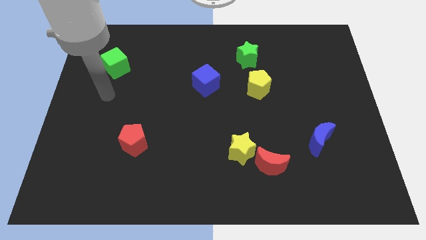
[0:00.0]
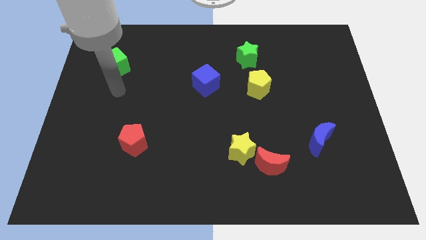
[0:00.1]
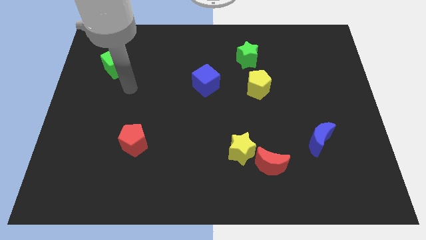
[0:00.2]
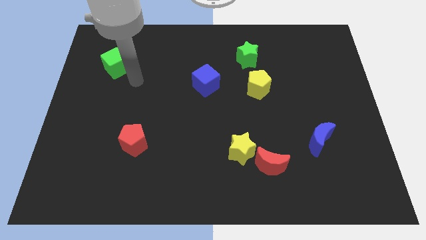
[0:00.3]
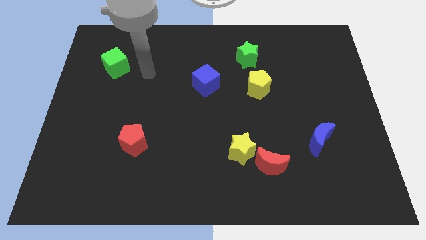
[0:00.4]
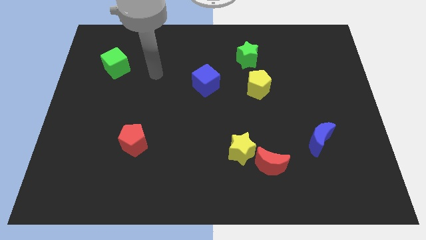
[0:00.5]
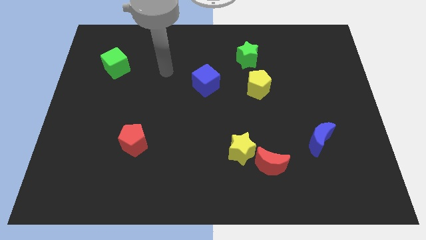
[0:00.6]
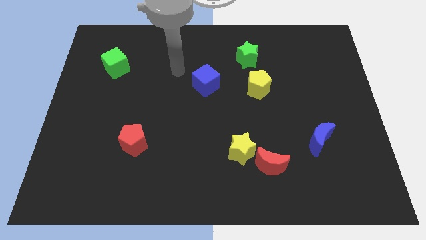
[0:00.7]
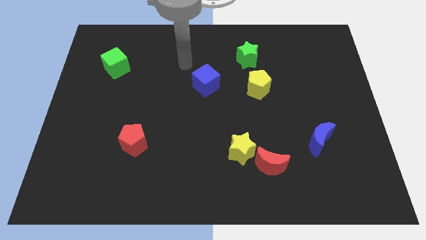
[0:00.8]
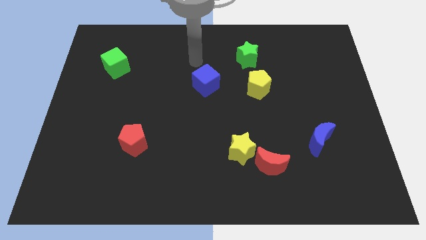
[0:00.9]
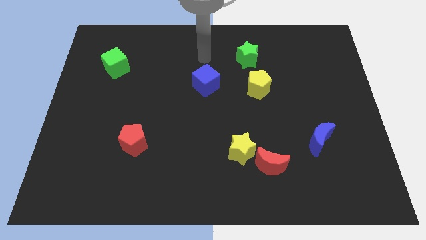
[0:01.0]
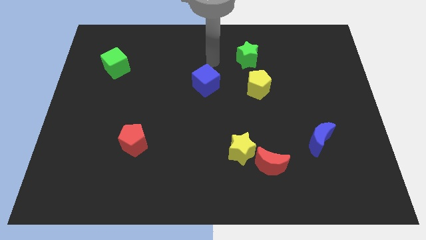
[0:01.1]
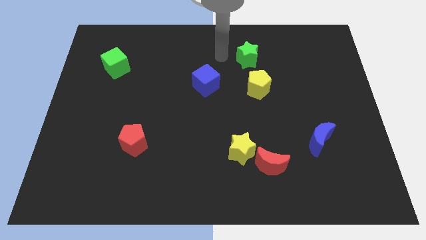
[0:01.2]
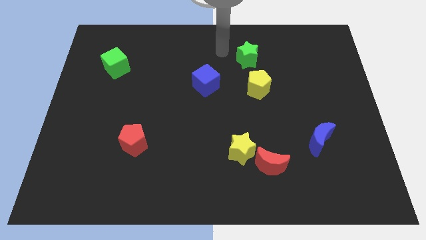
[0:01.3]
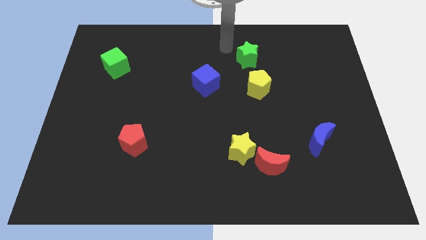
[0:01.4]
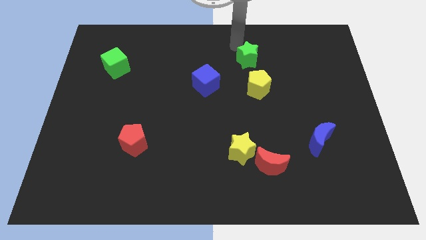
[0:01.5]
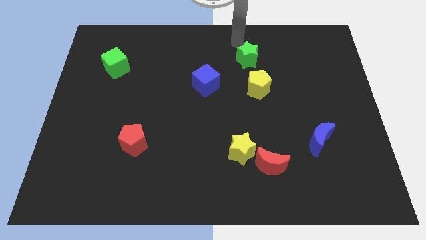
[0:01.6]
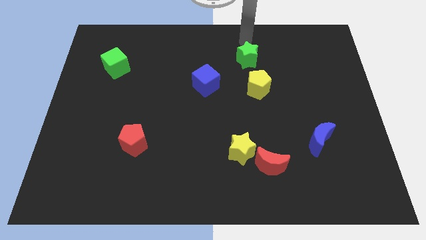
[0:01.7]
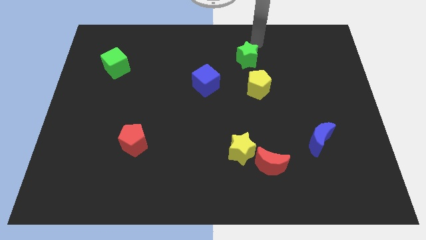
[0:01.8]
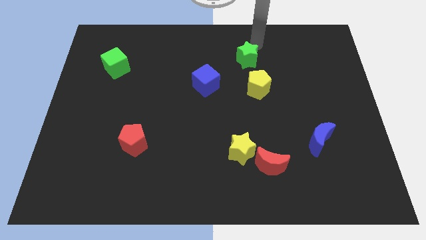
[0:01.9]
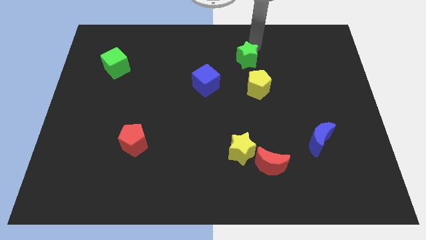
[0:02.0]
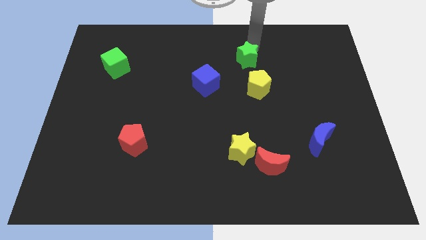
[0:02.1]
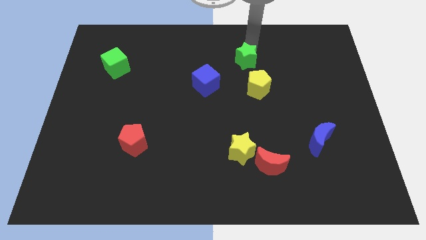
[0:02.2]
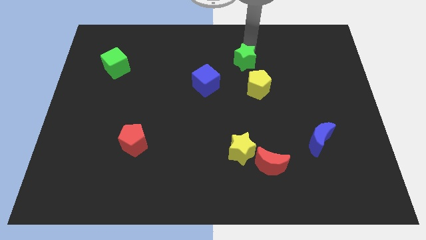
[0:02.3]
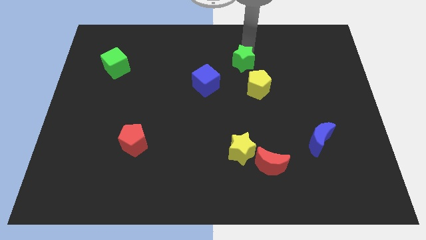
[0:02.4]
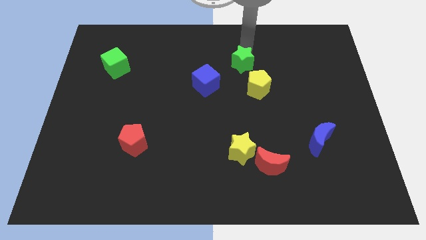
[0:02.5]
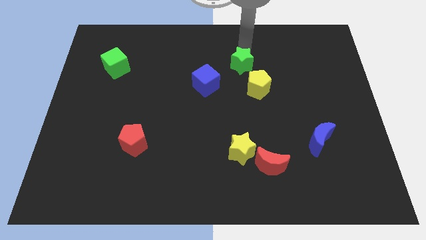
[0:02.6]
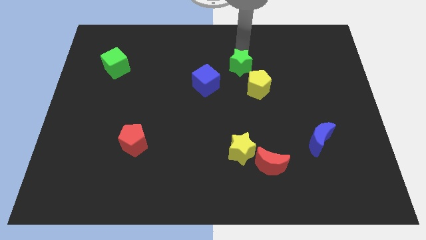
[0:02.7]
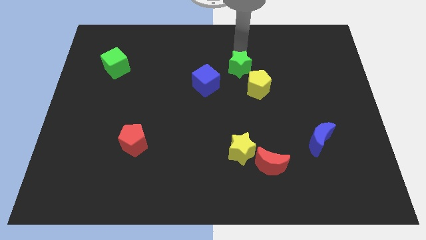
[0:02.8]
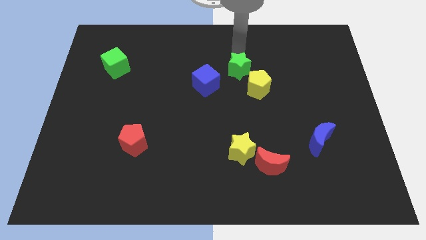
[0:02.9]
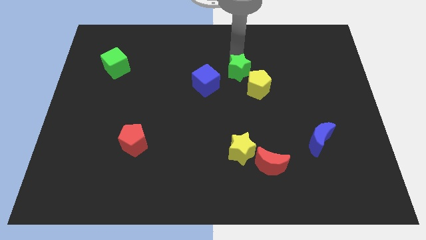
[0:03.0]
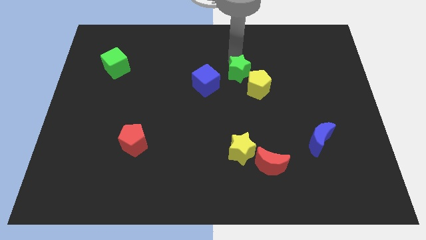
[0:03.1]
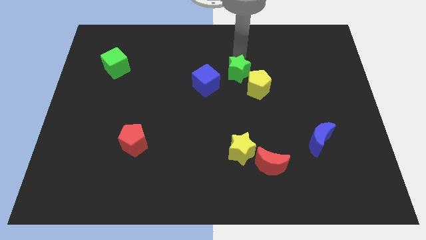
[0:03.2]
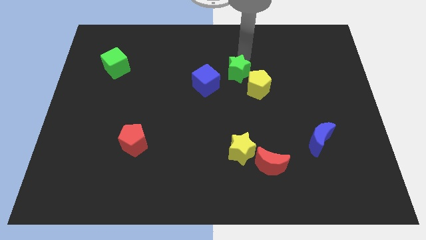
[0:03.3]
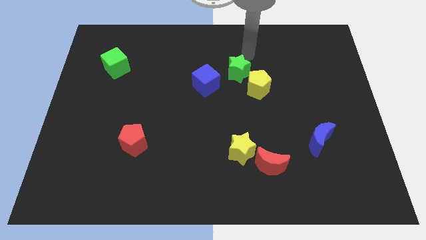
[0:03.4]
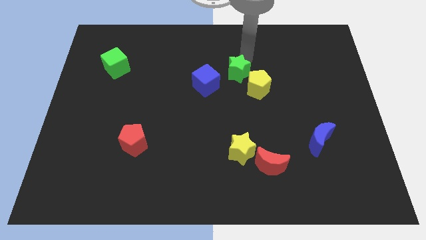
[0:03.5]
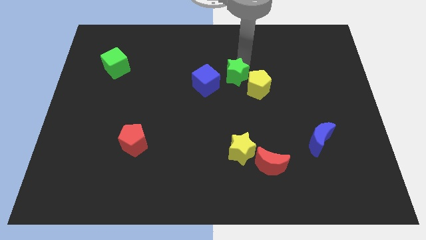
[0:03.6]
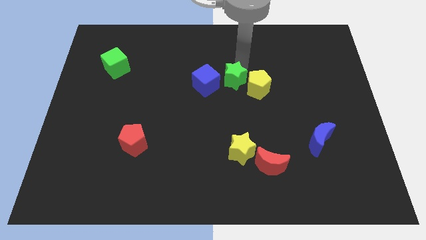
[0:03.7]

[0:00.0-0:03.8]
slide the green star down and to the left somewhat

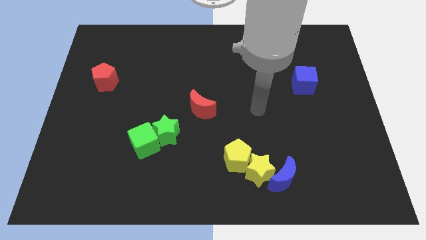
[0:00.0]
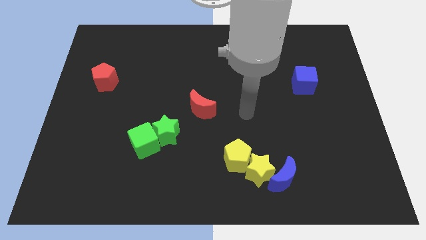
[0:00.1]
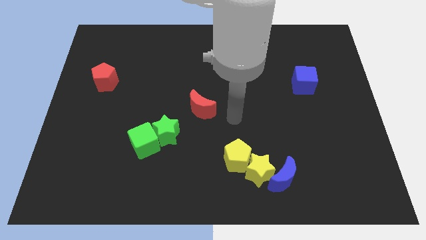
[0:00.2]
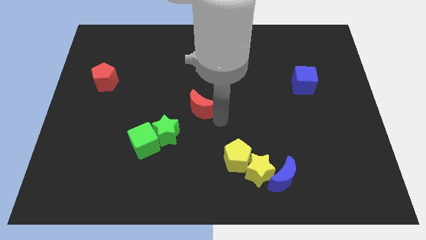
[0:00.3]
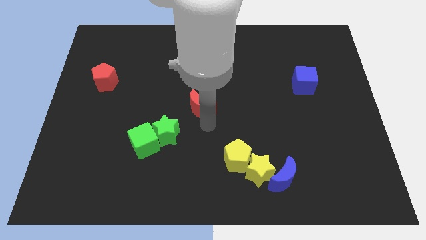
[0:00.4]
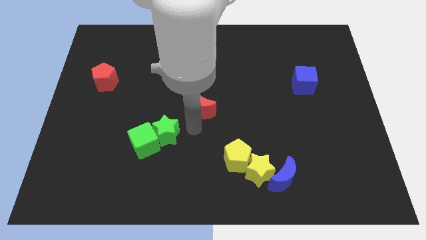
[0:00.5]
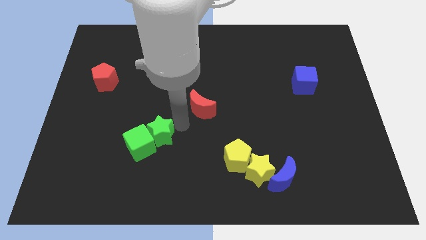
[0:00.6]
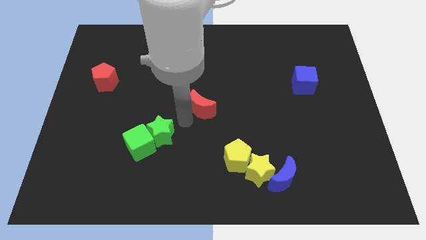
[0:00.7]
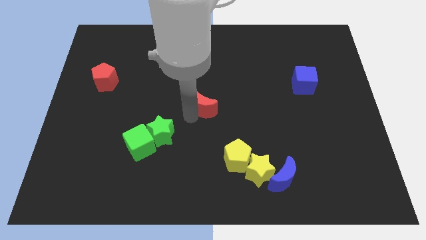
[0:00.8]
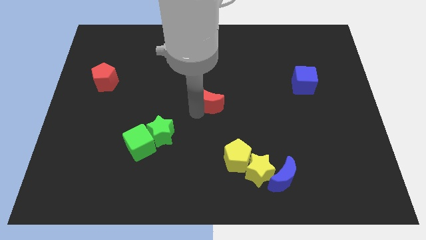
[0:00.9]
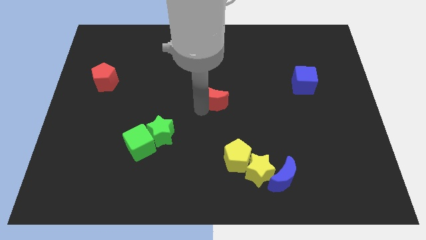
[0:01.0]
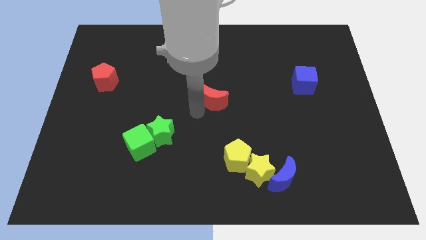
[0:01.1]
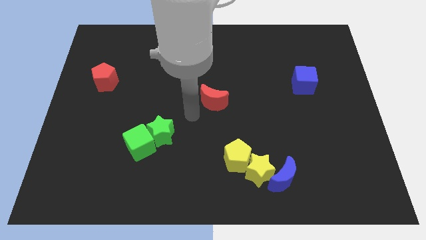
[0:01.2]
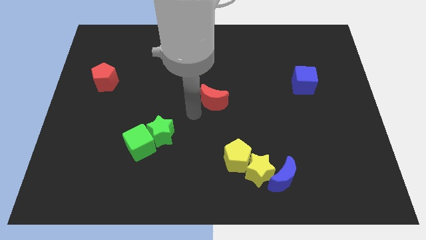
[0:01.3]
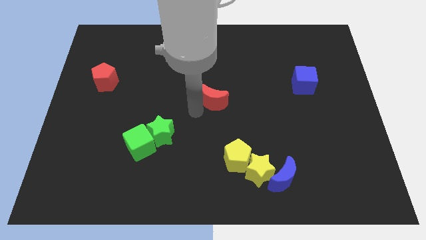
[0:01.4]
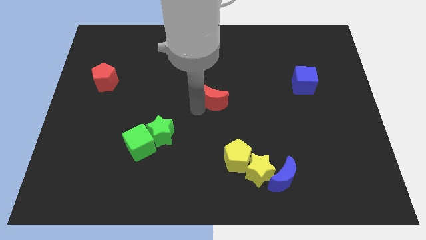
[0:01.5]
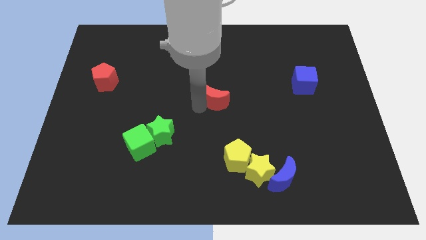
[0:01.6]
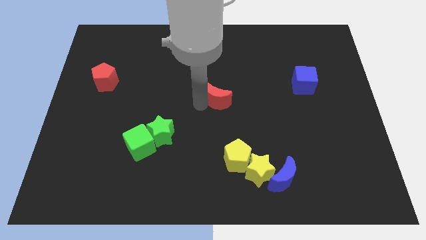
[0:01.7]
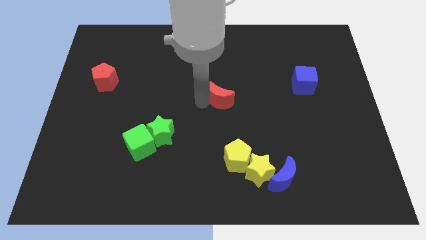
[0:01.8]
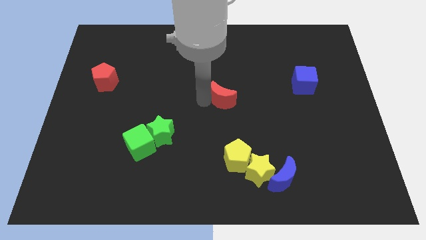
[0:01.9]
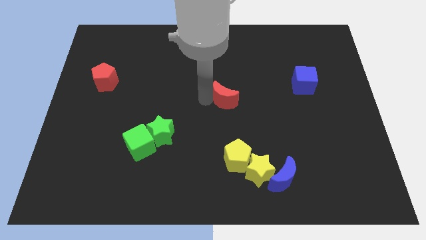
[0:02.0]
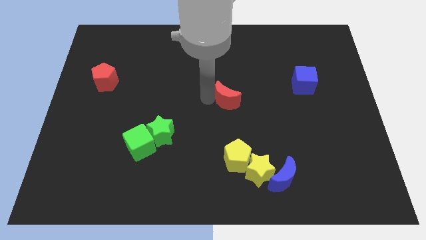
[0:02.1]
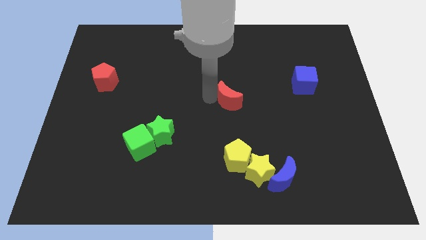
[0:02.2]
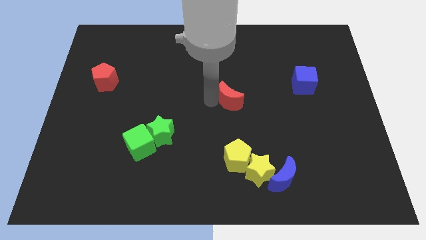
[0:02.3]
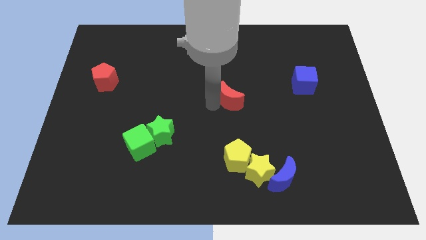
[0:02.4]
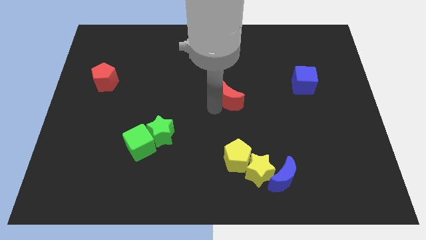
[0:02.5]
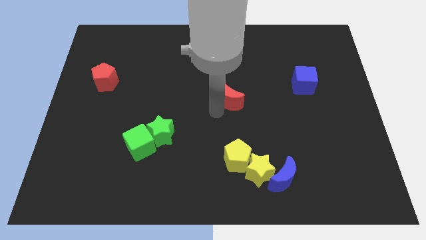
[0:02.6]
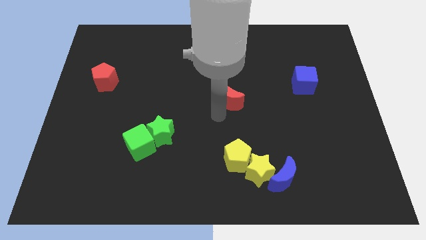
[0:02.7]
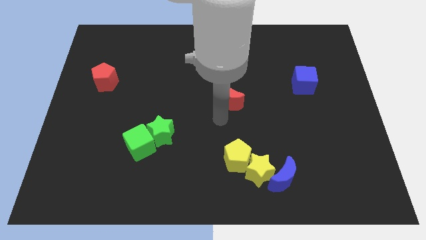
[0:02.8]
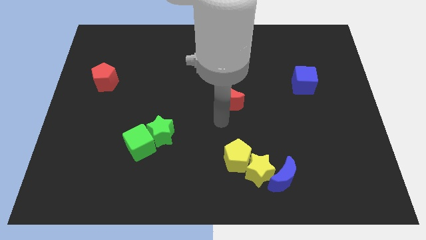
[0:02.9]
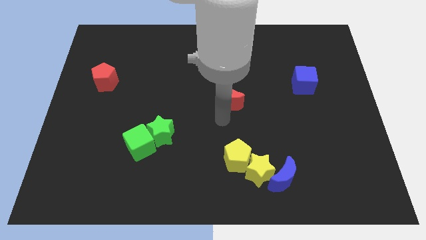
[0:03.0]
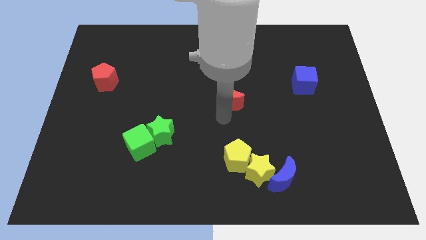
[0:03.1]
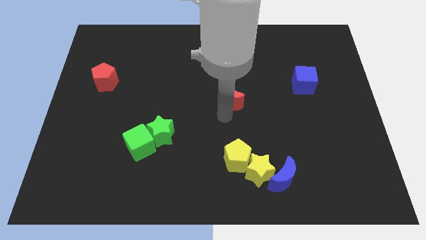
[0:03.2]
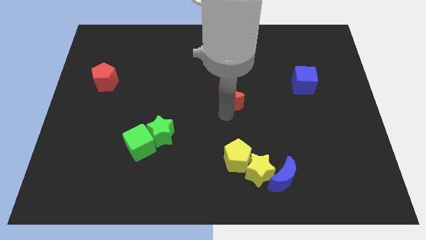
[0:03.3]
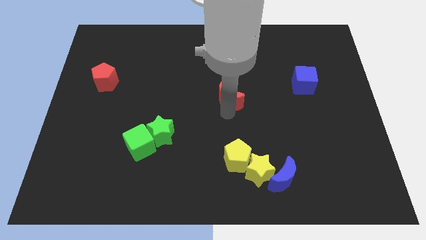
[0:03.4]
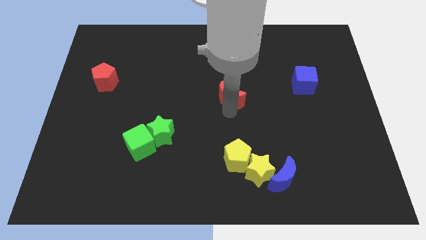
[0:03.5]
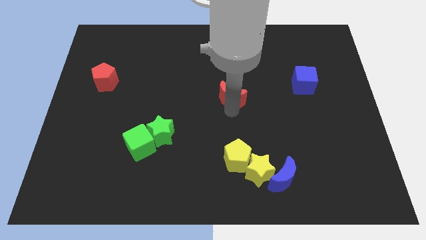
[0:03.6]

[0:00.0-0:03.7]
push the red moon up and then right a little

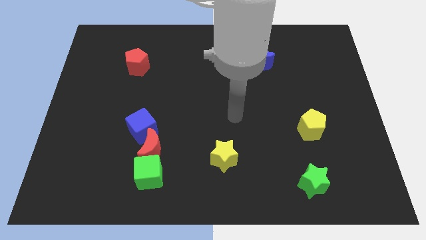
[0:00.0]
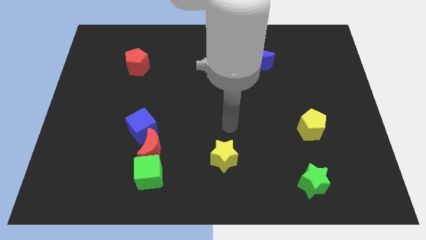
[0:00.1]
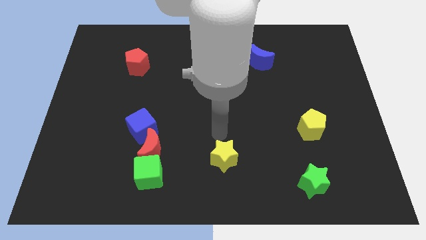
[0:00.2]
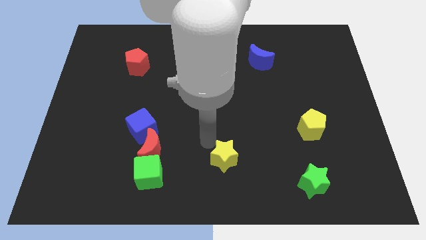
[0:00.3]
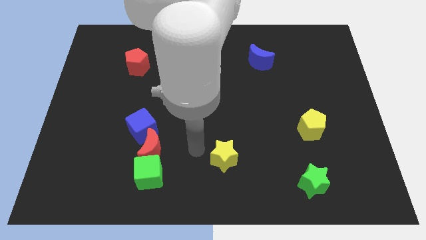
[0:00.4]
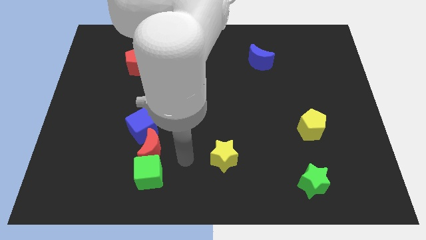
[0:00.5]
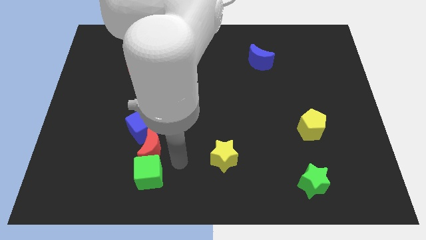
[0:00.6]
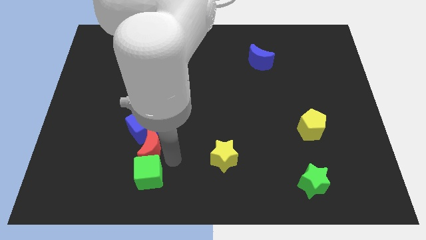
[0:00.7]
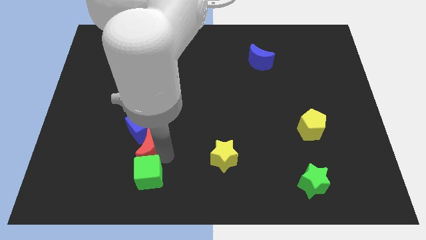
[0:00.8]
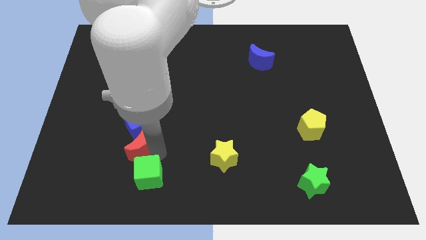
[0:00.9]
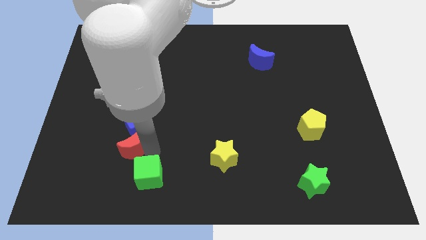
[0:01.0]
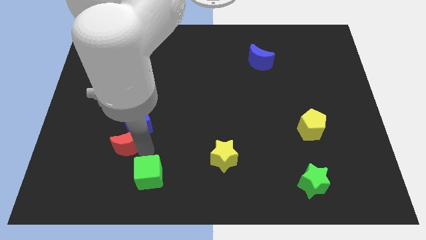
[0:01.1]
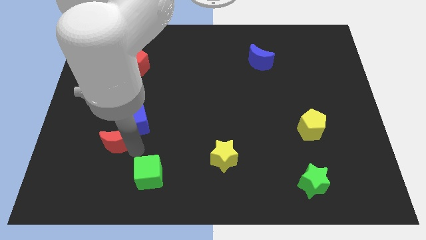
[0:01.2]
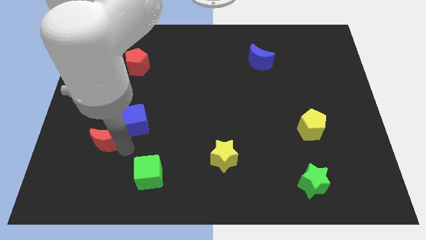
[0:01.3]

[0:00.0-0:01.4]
push the red moon up and then to the left somewhat
